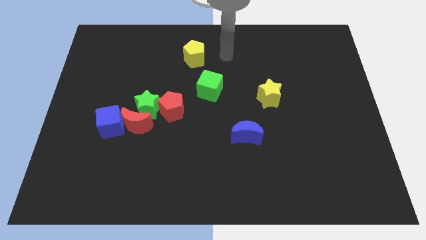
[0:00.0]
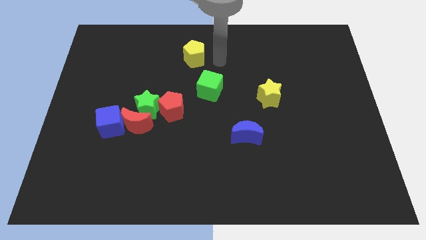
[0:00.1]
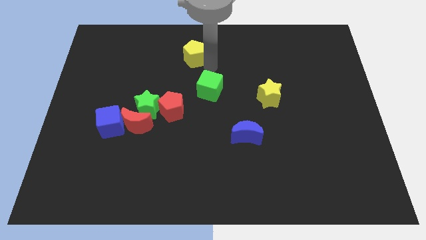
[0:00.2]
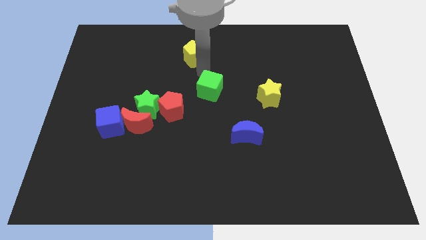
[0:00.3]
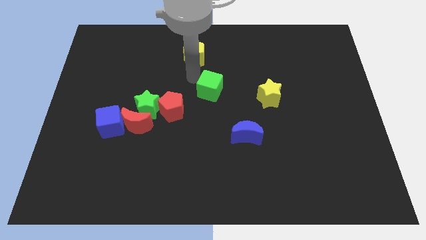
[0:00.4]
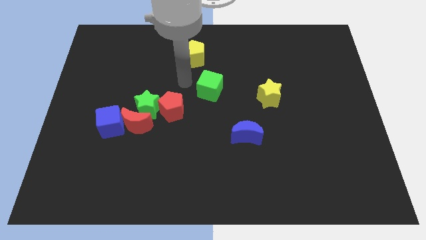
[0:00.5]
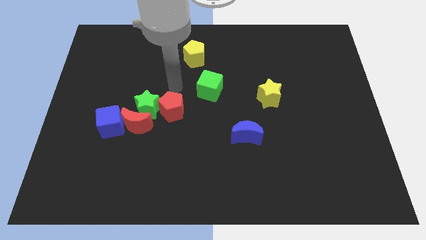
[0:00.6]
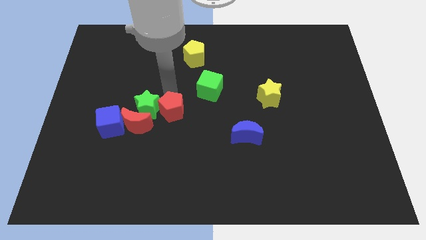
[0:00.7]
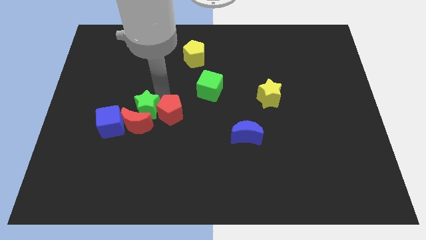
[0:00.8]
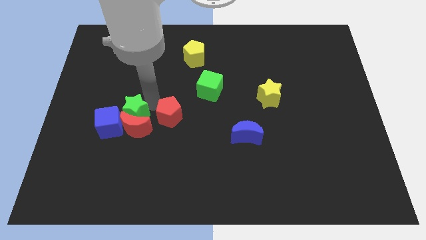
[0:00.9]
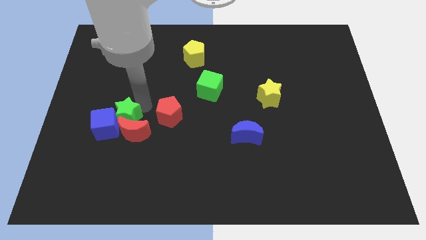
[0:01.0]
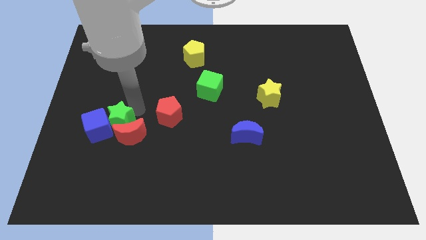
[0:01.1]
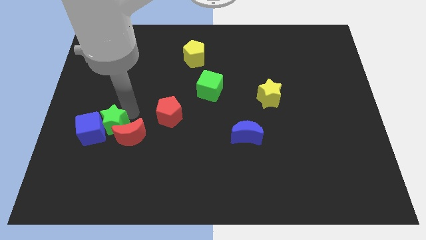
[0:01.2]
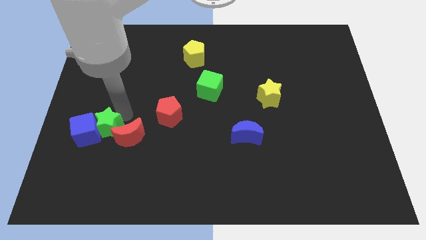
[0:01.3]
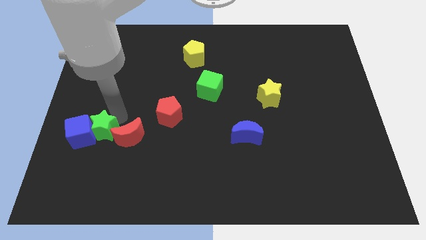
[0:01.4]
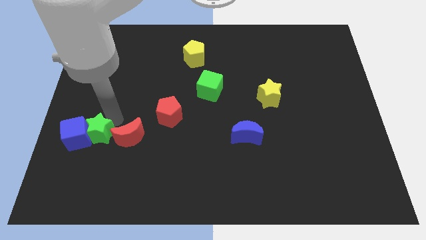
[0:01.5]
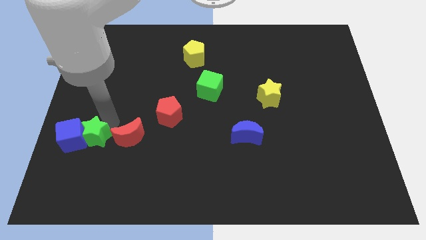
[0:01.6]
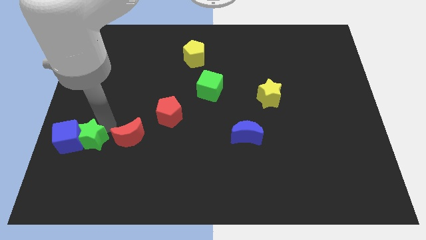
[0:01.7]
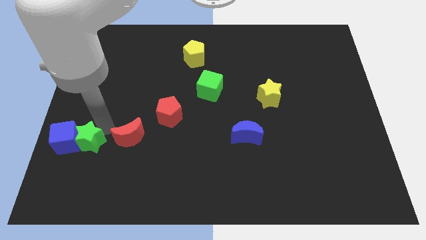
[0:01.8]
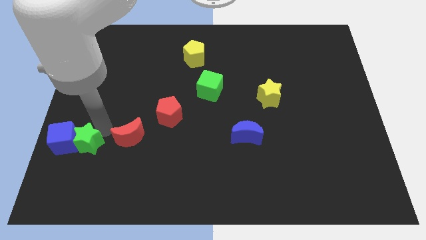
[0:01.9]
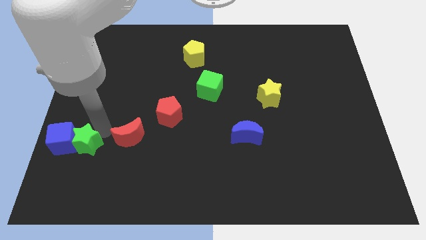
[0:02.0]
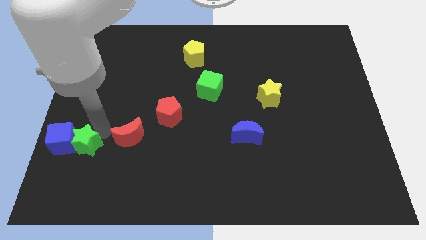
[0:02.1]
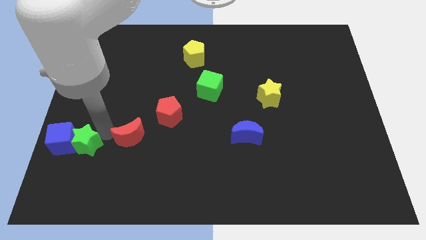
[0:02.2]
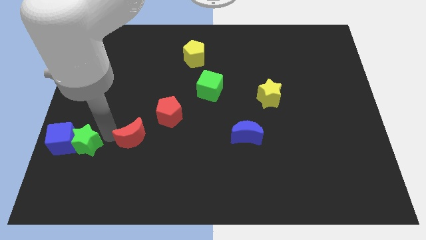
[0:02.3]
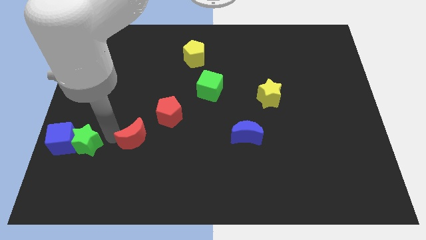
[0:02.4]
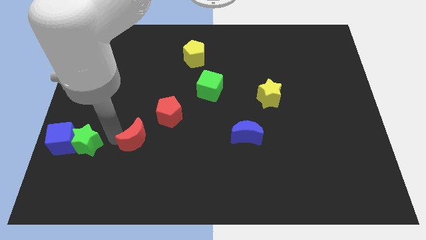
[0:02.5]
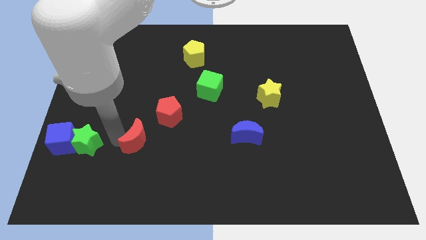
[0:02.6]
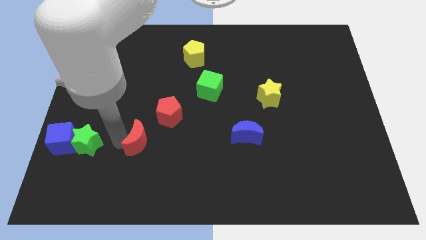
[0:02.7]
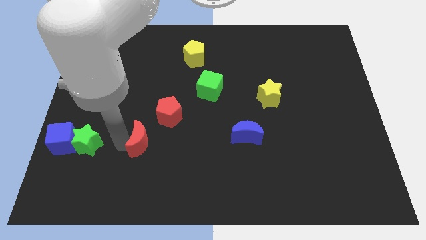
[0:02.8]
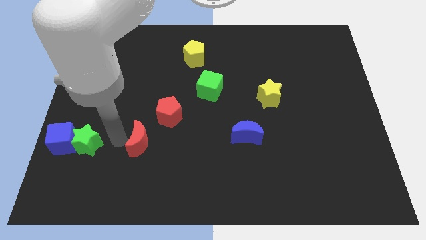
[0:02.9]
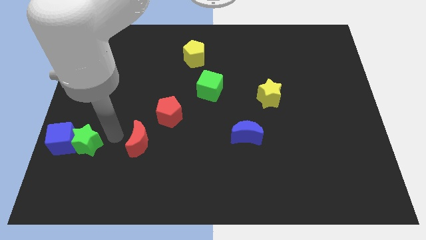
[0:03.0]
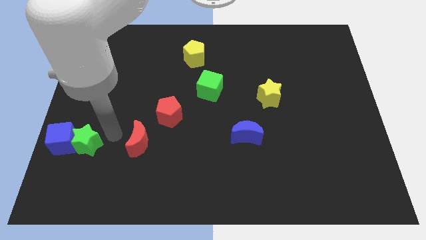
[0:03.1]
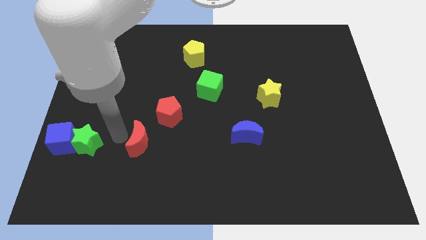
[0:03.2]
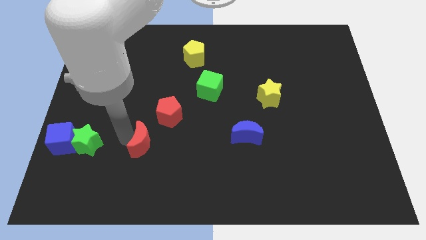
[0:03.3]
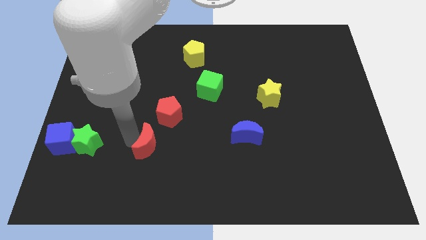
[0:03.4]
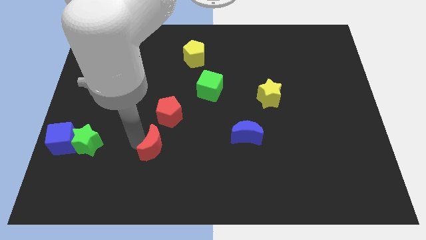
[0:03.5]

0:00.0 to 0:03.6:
pull the red moon apart from the group of blocks

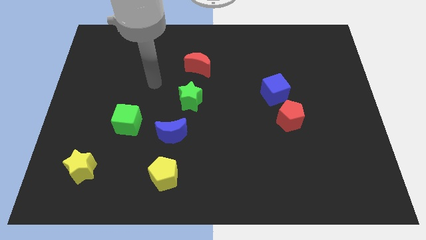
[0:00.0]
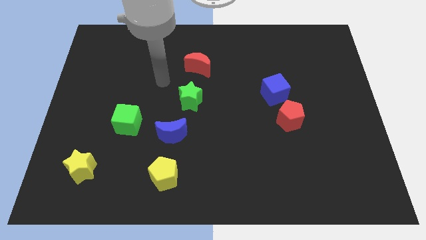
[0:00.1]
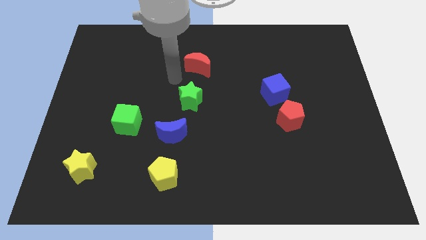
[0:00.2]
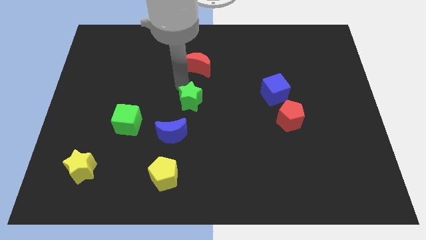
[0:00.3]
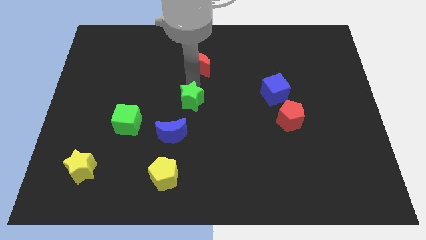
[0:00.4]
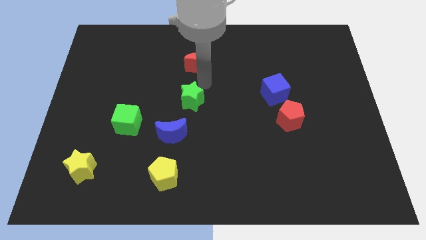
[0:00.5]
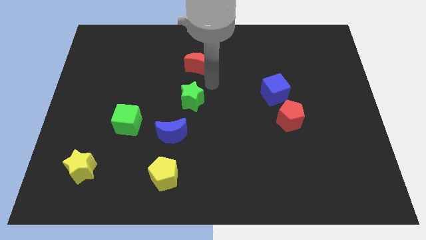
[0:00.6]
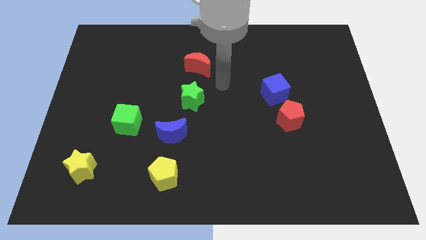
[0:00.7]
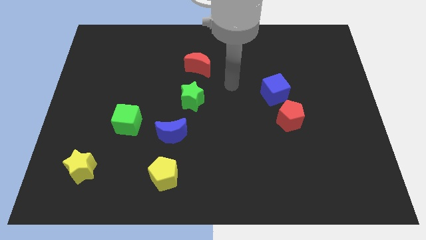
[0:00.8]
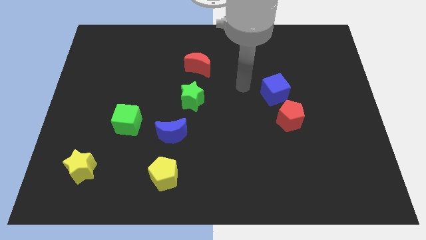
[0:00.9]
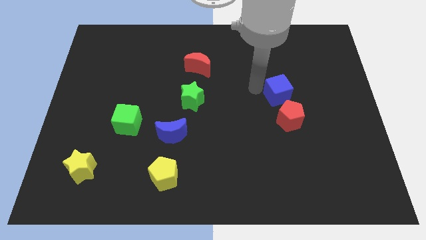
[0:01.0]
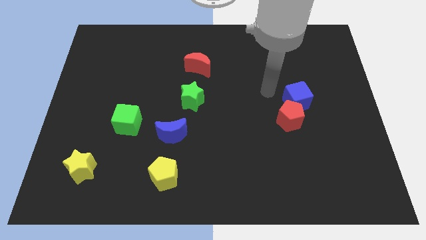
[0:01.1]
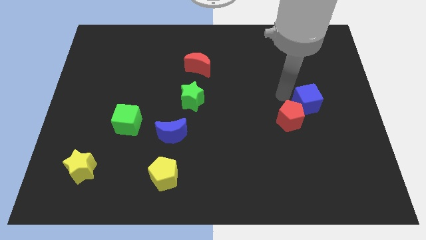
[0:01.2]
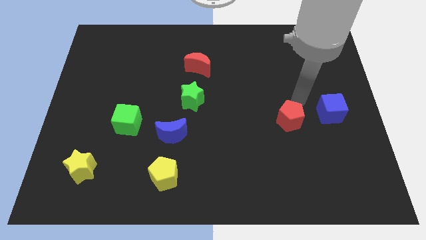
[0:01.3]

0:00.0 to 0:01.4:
separate the red pentagon from the blue cube

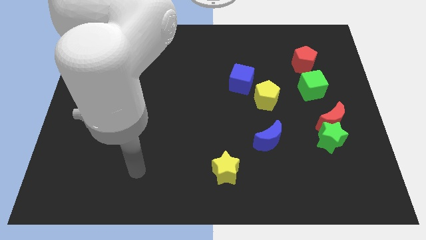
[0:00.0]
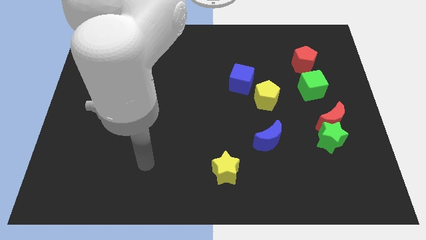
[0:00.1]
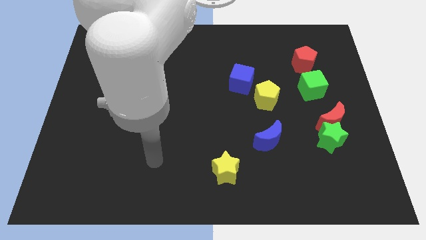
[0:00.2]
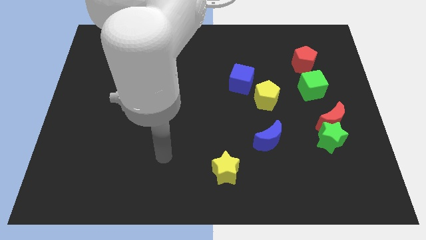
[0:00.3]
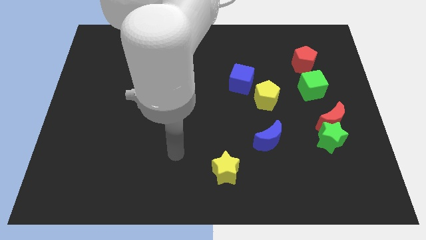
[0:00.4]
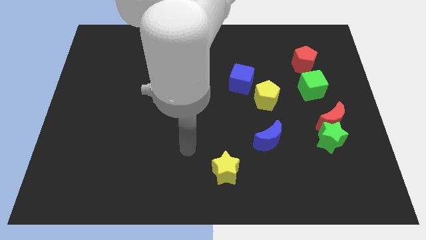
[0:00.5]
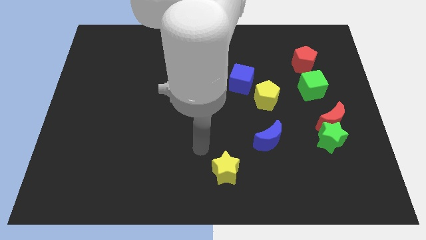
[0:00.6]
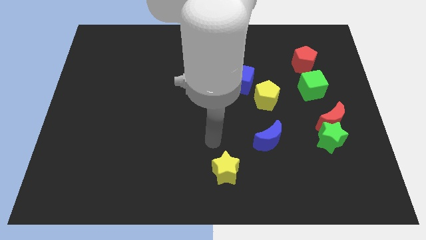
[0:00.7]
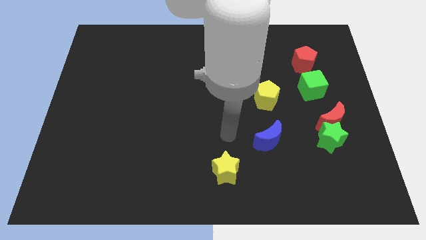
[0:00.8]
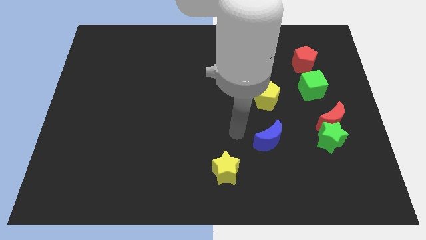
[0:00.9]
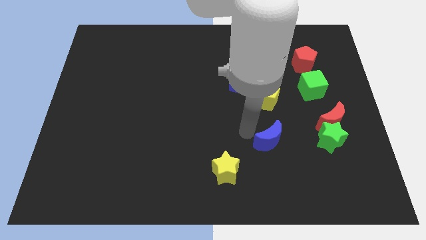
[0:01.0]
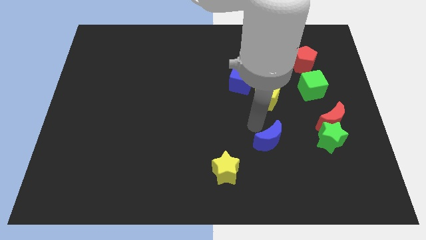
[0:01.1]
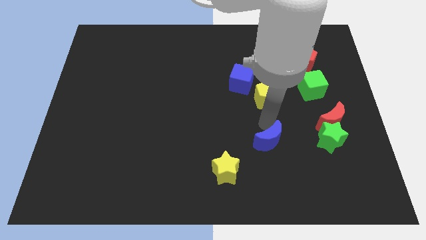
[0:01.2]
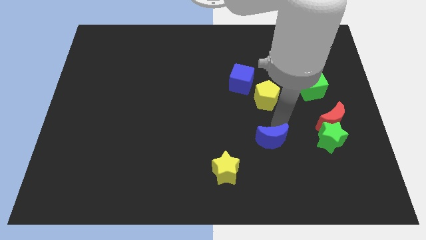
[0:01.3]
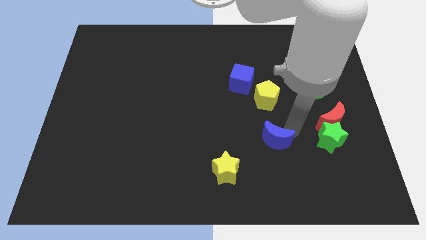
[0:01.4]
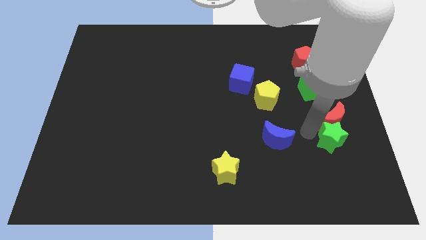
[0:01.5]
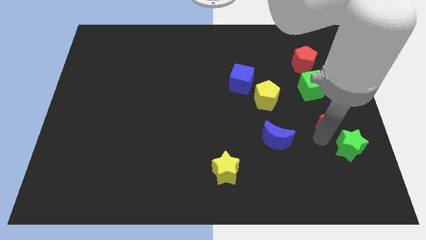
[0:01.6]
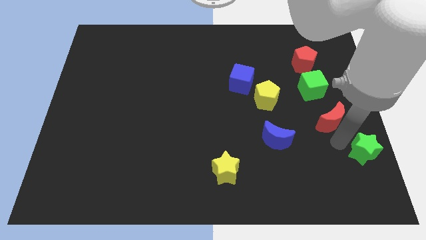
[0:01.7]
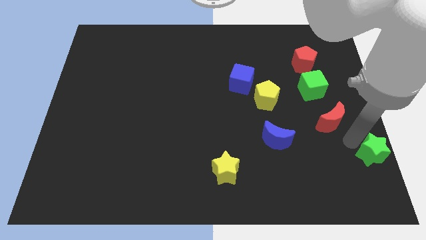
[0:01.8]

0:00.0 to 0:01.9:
move the red moon away from the green star

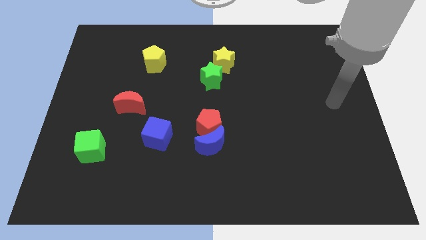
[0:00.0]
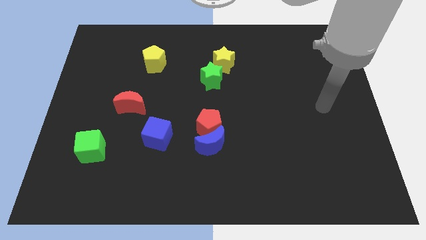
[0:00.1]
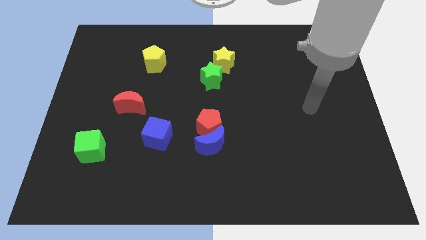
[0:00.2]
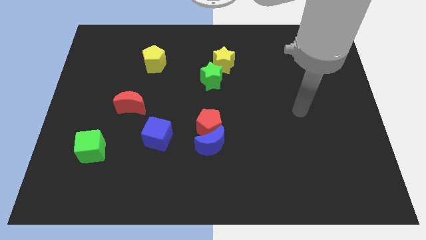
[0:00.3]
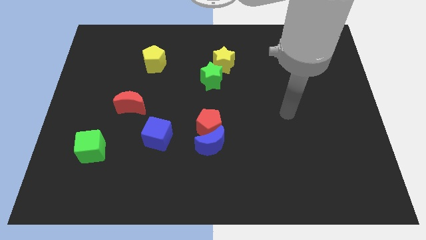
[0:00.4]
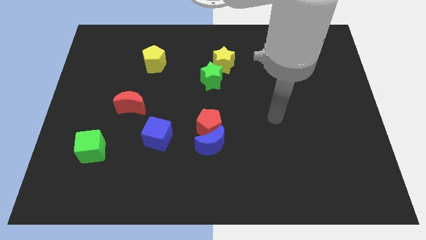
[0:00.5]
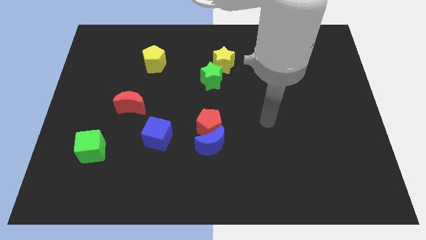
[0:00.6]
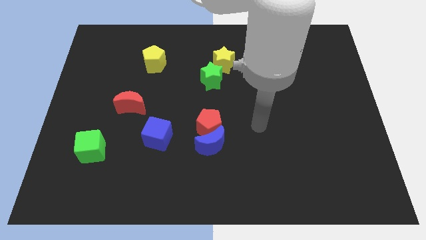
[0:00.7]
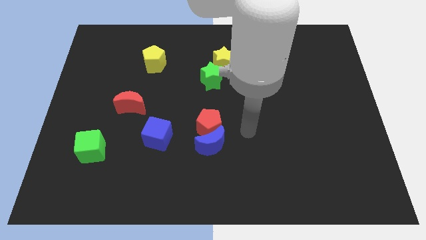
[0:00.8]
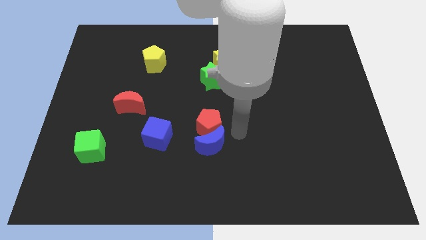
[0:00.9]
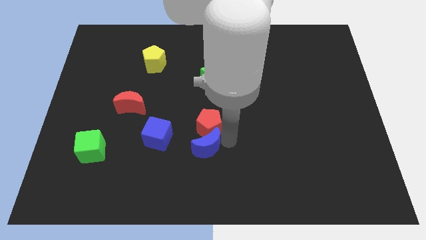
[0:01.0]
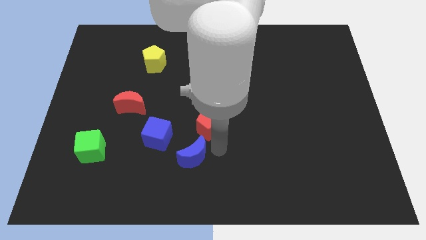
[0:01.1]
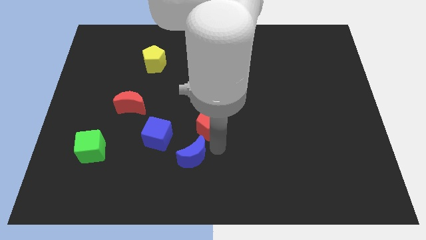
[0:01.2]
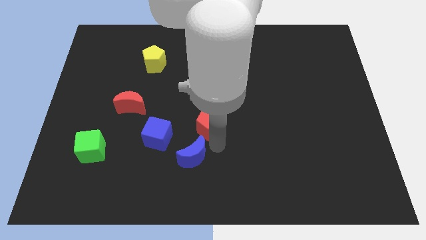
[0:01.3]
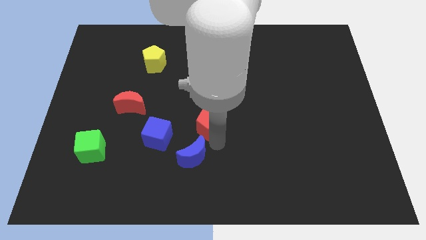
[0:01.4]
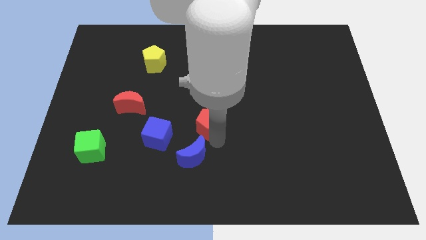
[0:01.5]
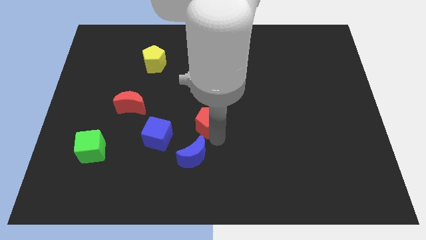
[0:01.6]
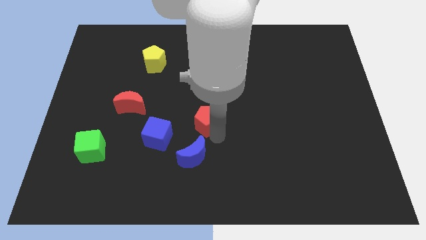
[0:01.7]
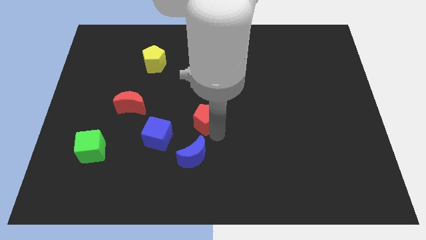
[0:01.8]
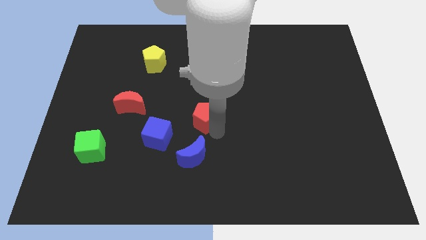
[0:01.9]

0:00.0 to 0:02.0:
separate the red pentagon from the blue moon

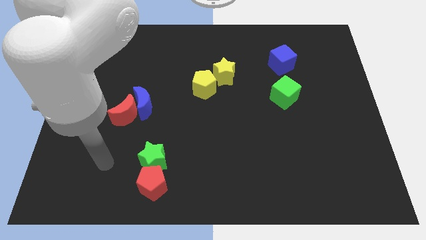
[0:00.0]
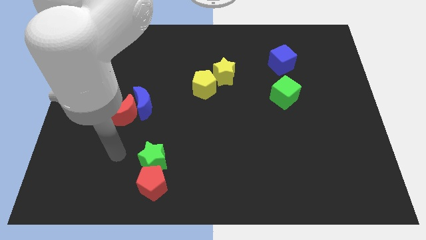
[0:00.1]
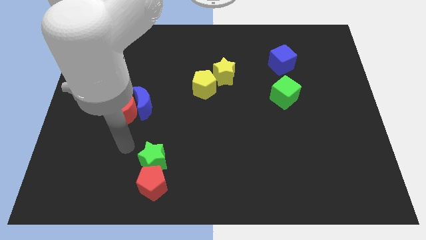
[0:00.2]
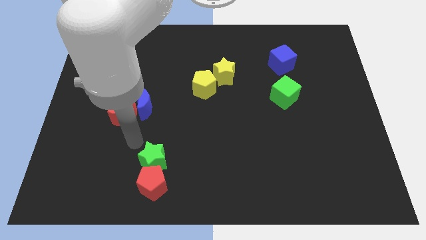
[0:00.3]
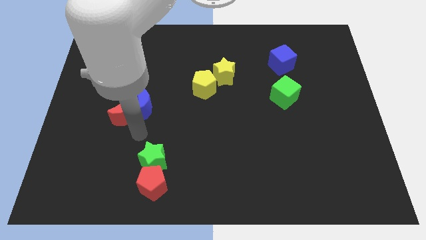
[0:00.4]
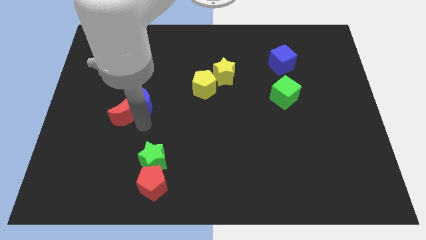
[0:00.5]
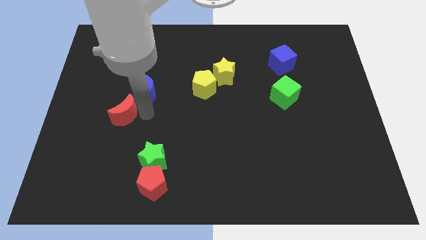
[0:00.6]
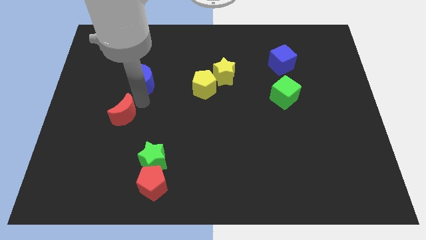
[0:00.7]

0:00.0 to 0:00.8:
move the red moon away from the blue moon
